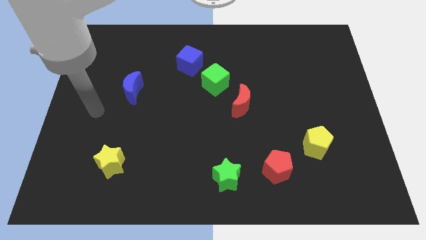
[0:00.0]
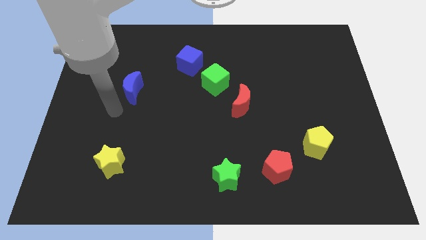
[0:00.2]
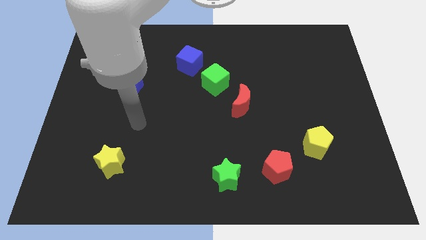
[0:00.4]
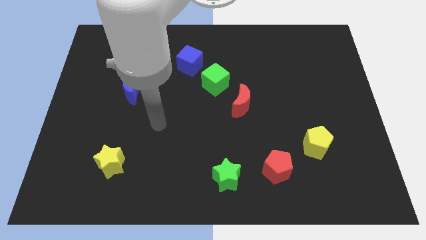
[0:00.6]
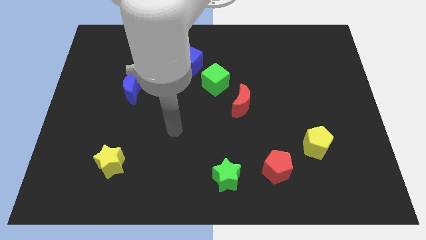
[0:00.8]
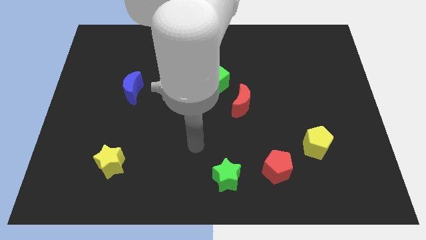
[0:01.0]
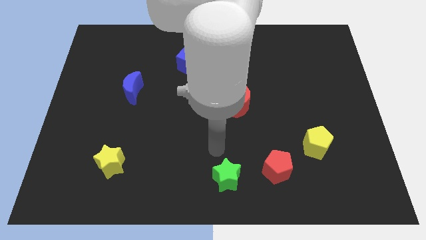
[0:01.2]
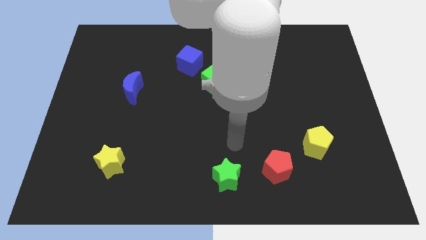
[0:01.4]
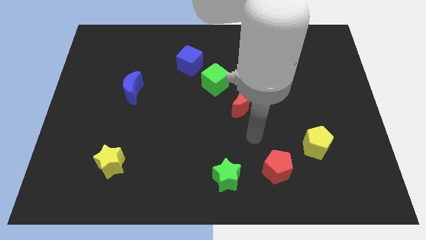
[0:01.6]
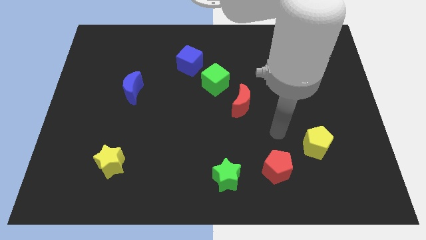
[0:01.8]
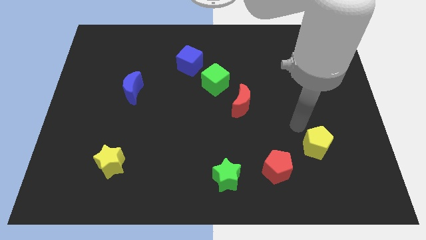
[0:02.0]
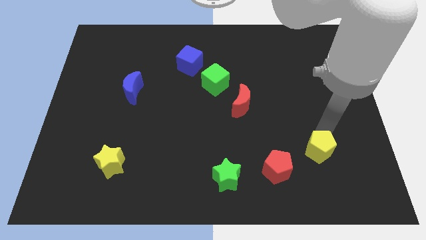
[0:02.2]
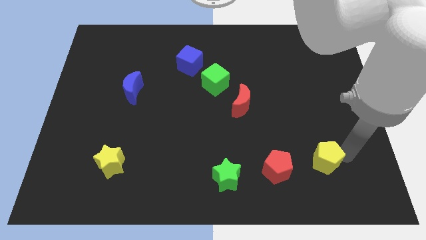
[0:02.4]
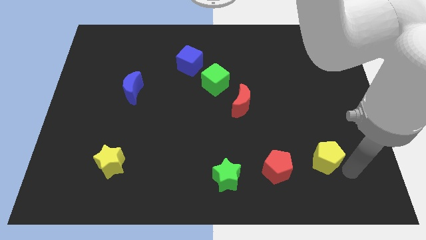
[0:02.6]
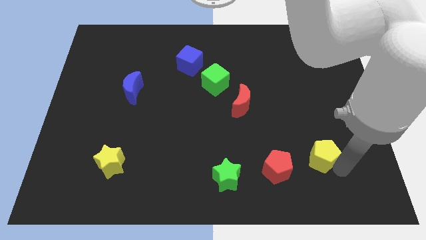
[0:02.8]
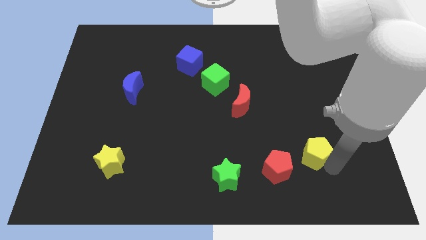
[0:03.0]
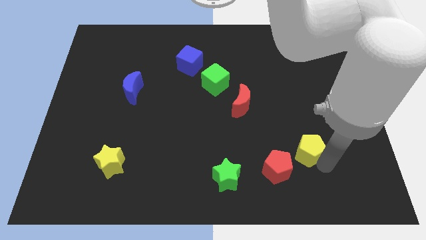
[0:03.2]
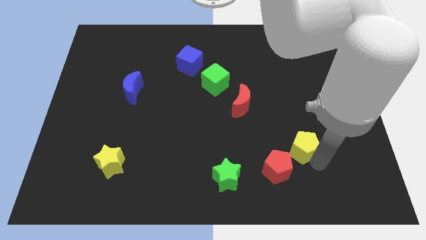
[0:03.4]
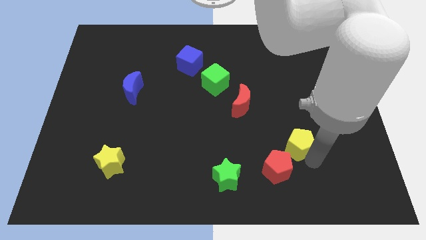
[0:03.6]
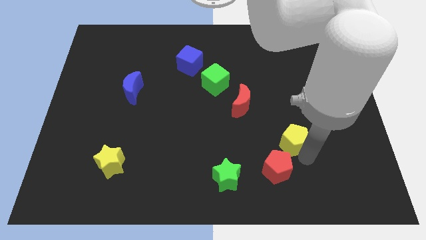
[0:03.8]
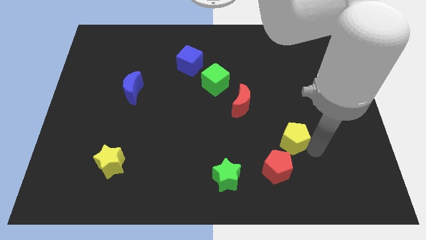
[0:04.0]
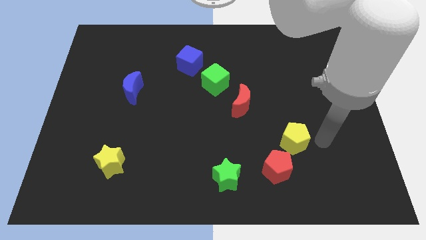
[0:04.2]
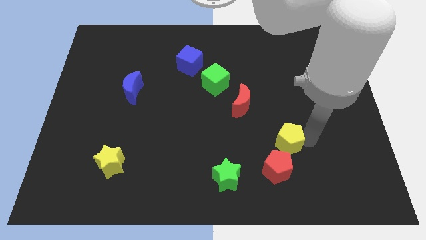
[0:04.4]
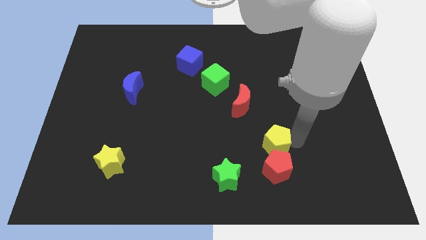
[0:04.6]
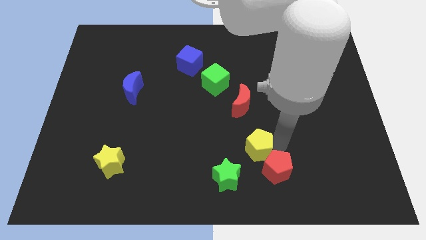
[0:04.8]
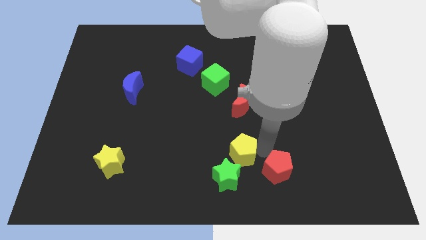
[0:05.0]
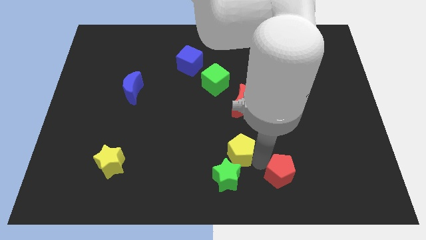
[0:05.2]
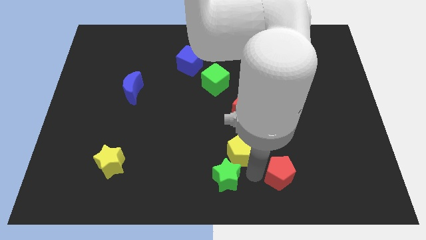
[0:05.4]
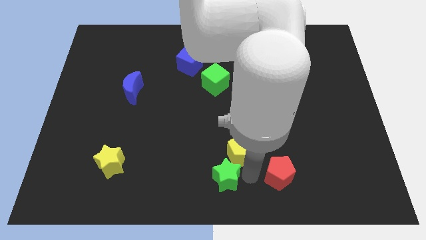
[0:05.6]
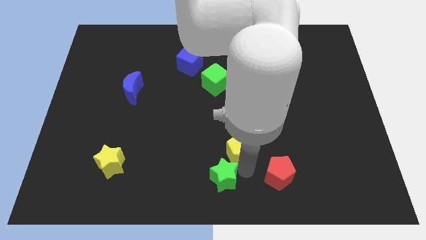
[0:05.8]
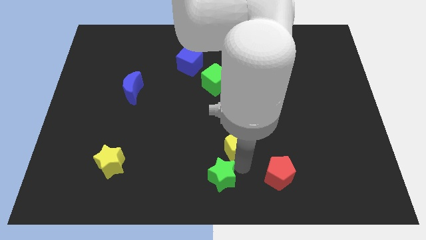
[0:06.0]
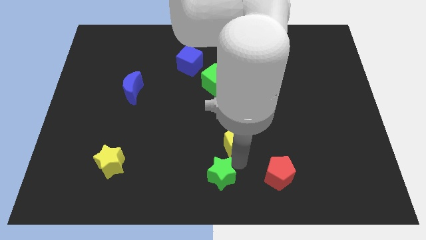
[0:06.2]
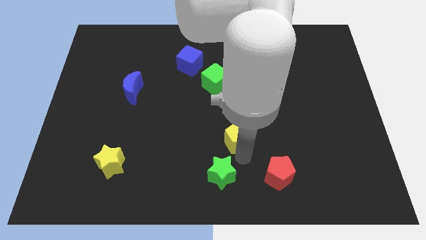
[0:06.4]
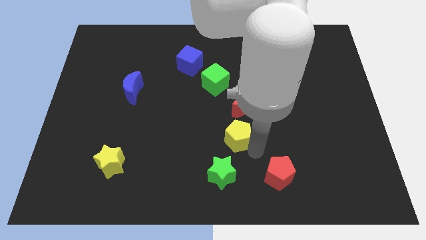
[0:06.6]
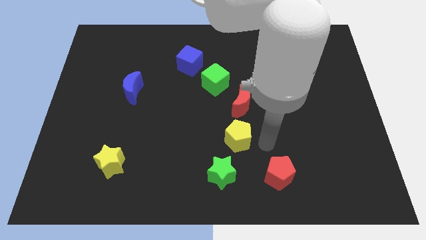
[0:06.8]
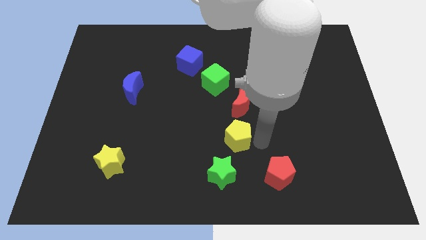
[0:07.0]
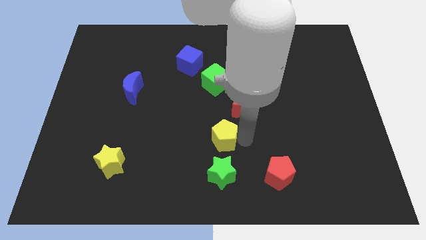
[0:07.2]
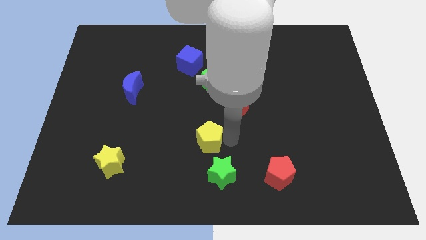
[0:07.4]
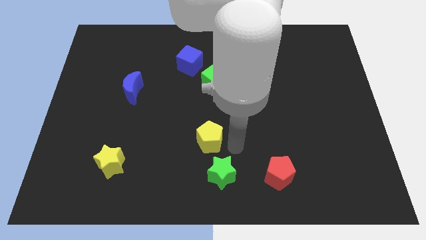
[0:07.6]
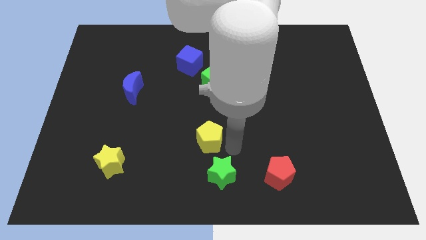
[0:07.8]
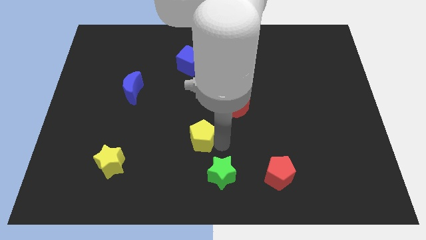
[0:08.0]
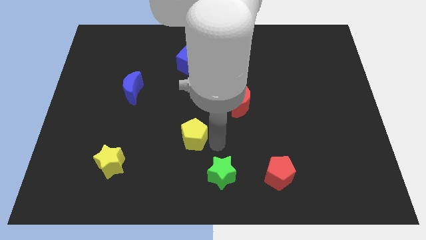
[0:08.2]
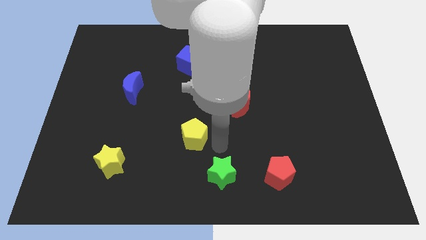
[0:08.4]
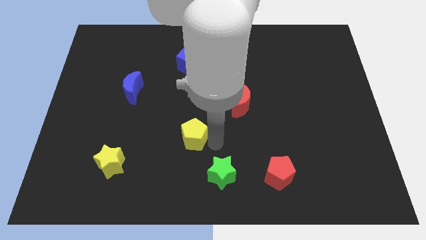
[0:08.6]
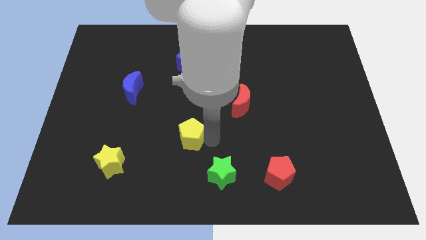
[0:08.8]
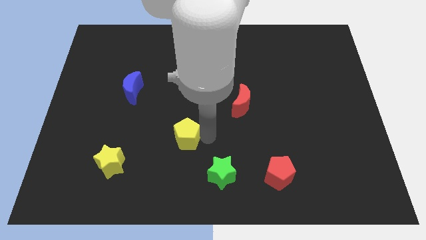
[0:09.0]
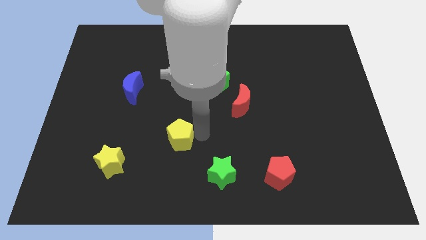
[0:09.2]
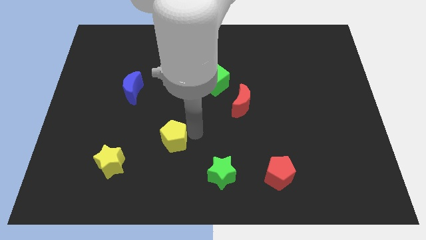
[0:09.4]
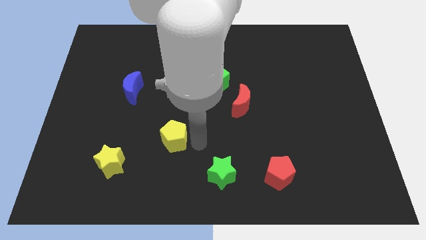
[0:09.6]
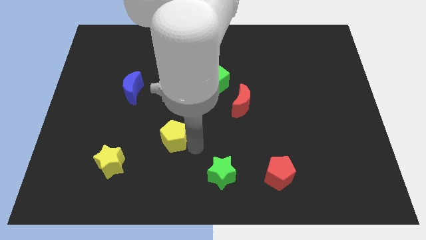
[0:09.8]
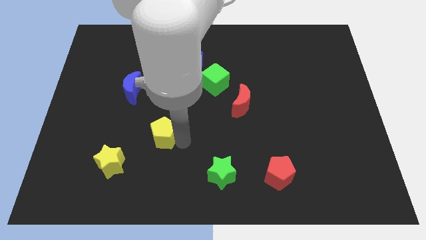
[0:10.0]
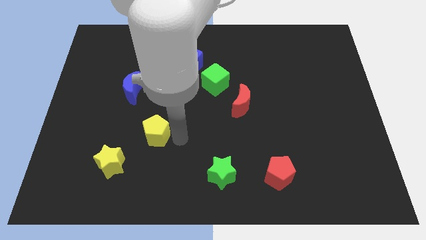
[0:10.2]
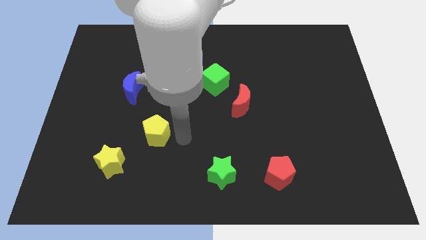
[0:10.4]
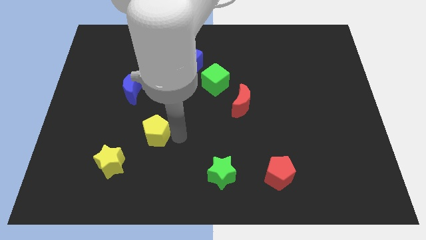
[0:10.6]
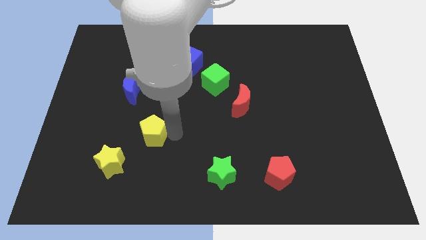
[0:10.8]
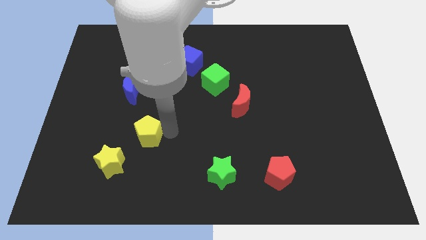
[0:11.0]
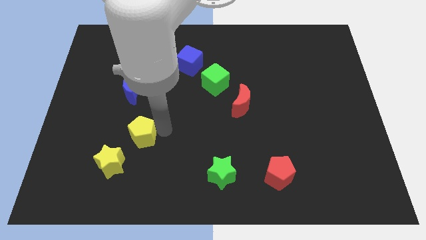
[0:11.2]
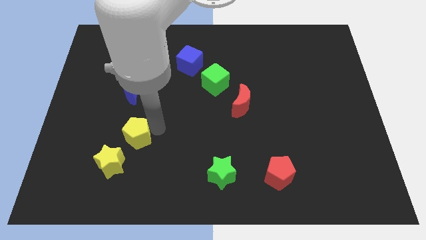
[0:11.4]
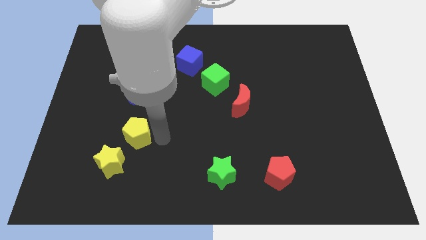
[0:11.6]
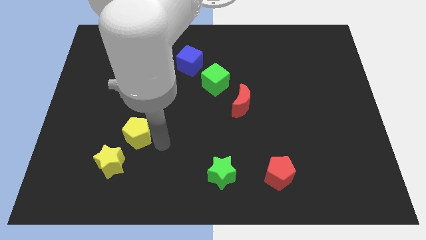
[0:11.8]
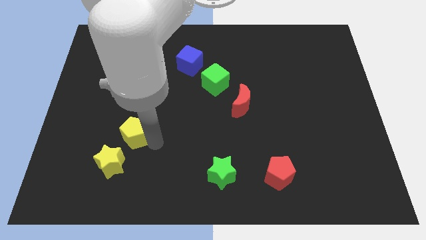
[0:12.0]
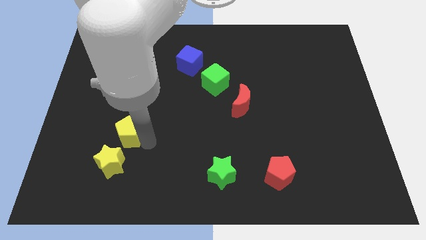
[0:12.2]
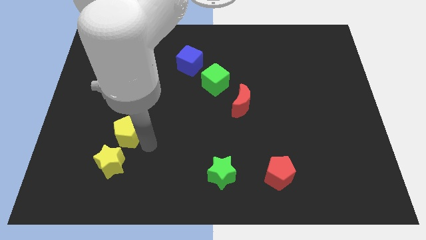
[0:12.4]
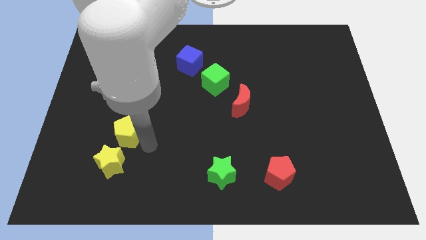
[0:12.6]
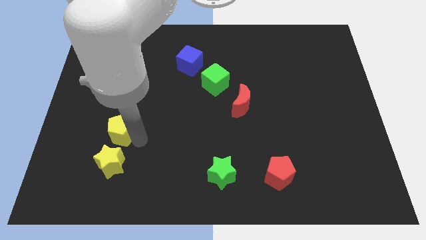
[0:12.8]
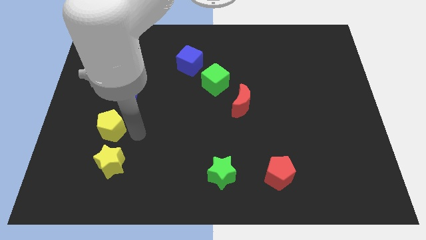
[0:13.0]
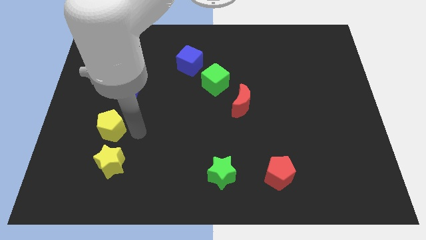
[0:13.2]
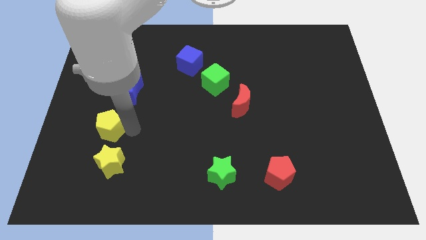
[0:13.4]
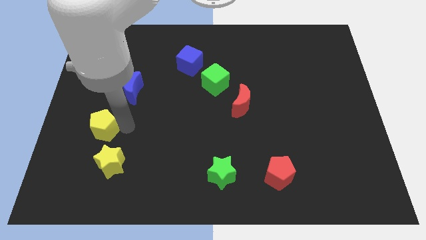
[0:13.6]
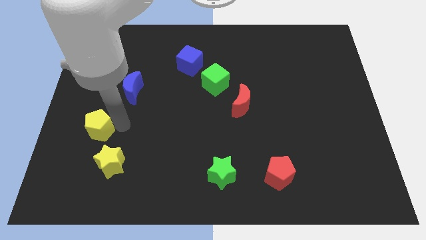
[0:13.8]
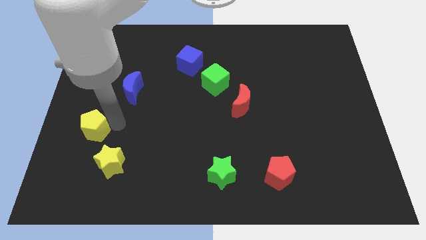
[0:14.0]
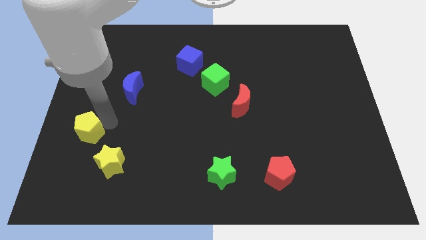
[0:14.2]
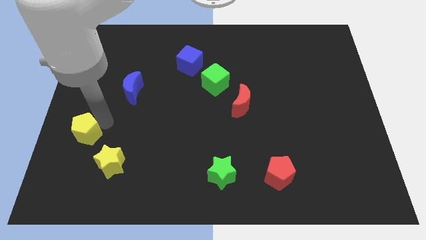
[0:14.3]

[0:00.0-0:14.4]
push the yellow pentagon to the left side
